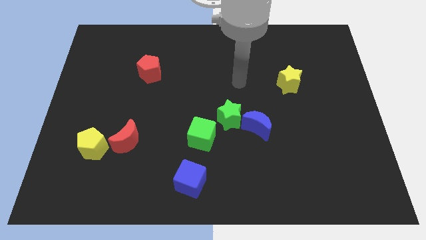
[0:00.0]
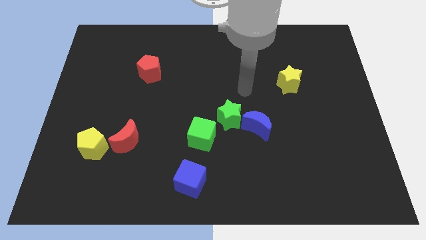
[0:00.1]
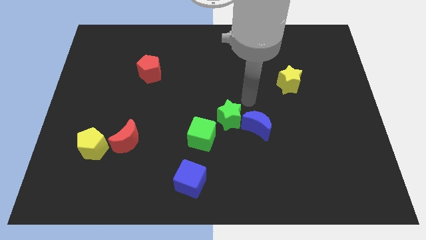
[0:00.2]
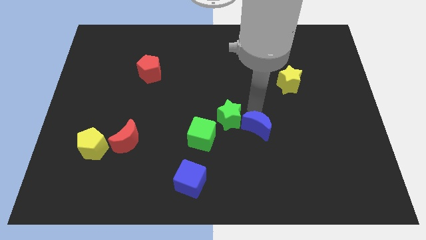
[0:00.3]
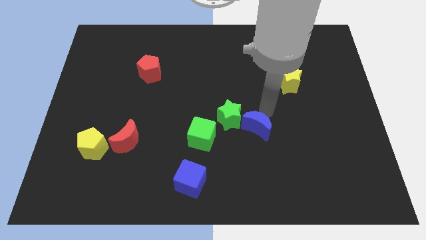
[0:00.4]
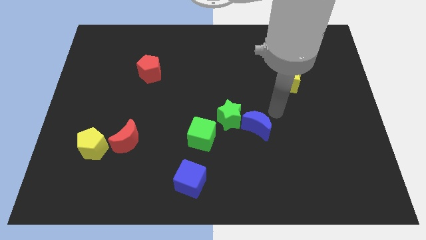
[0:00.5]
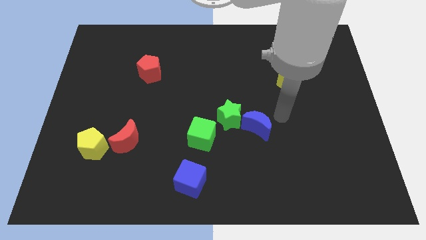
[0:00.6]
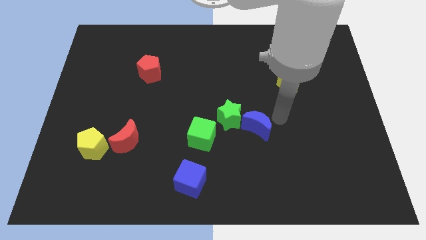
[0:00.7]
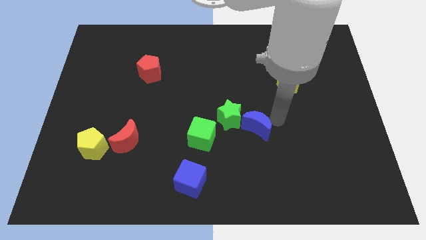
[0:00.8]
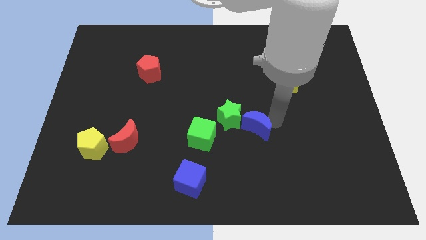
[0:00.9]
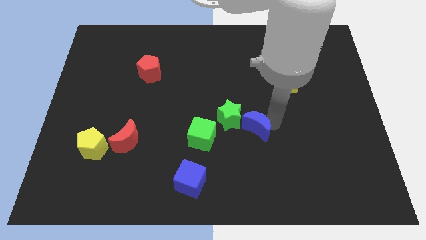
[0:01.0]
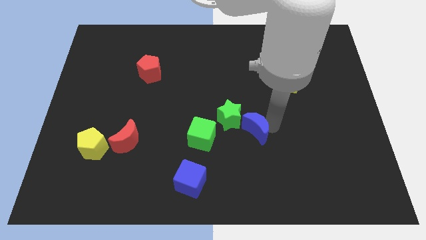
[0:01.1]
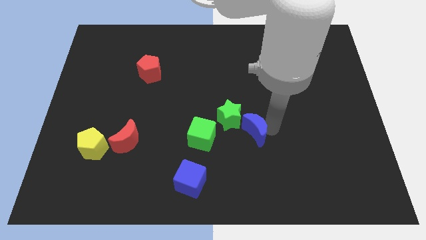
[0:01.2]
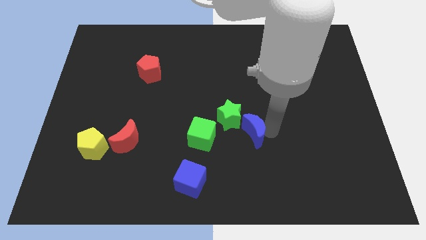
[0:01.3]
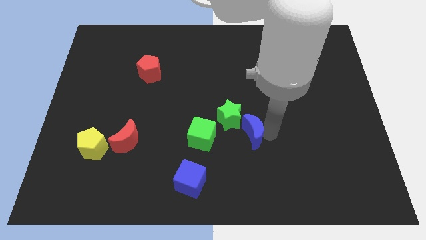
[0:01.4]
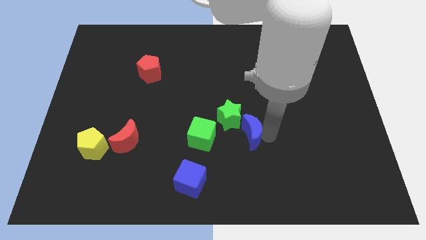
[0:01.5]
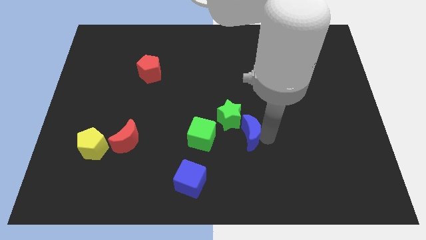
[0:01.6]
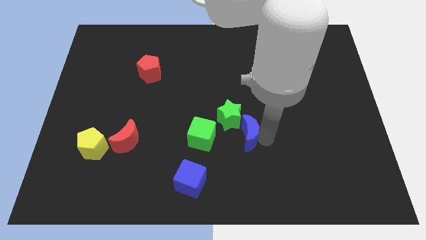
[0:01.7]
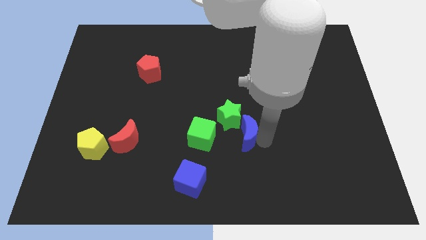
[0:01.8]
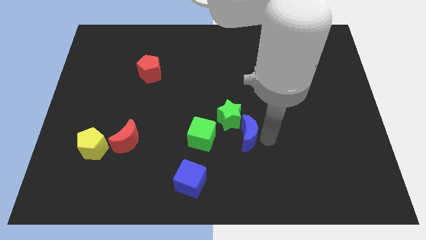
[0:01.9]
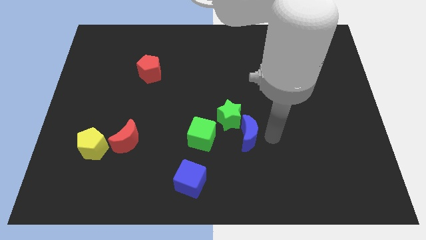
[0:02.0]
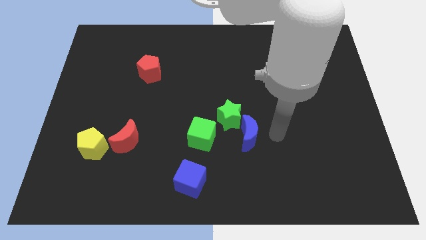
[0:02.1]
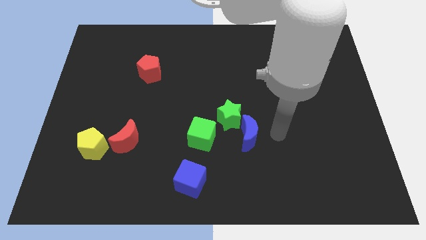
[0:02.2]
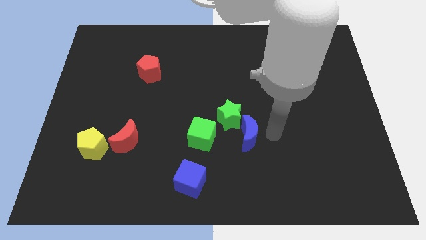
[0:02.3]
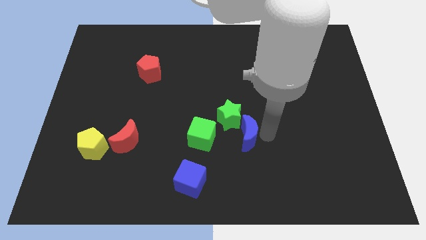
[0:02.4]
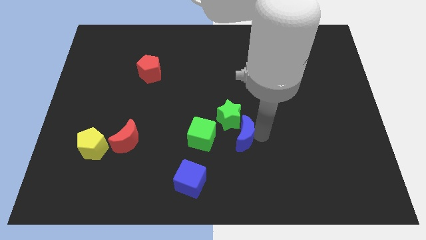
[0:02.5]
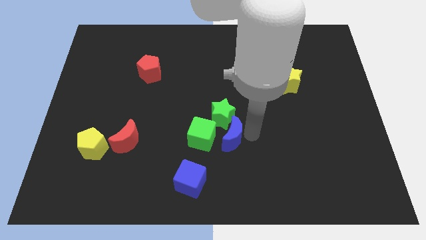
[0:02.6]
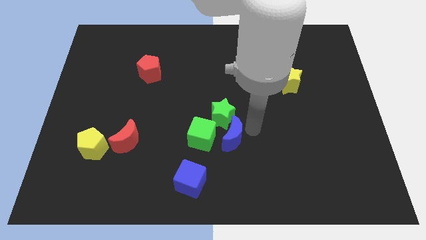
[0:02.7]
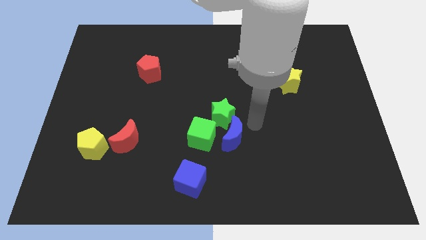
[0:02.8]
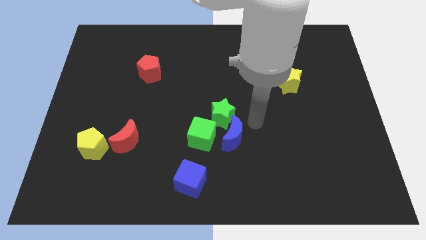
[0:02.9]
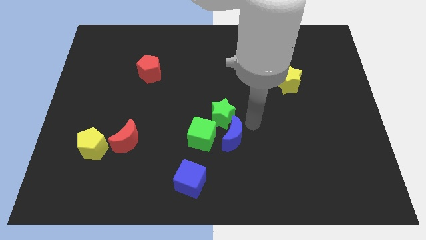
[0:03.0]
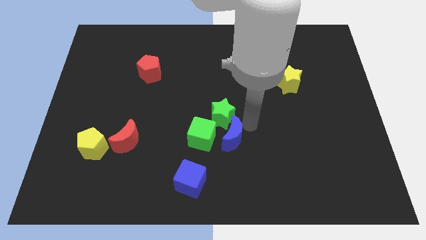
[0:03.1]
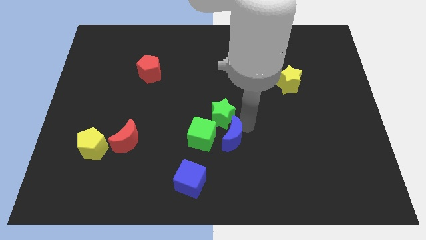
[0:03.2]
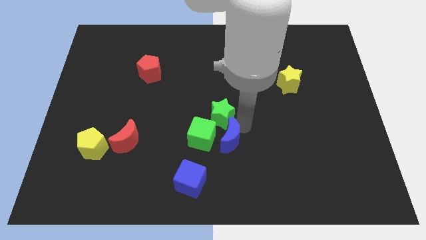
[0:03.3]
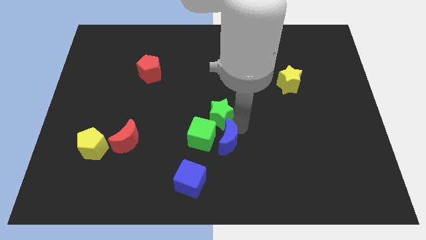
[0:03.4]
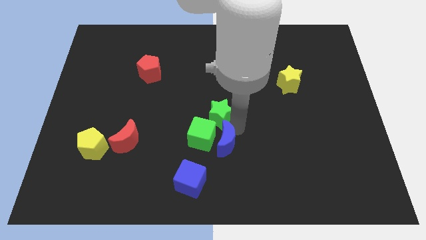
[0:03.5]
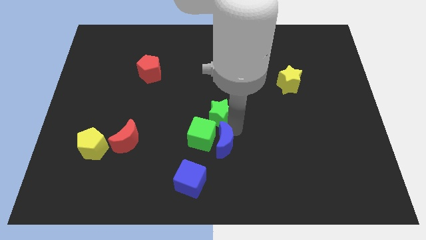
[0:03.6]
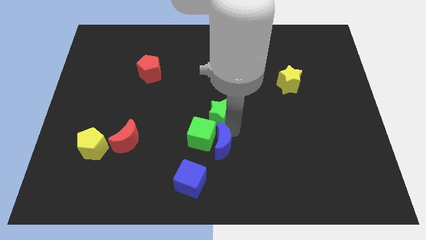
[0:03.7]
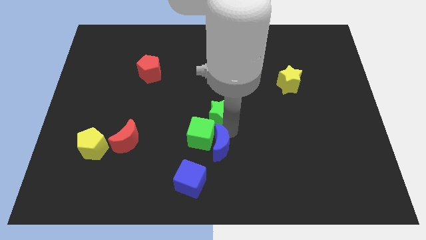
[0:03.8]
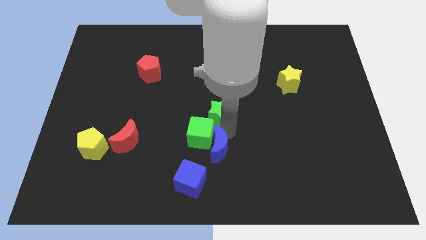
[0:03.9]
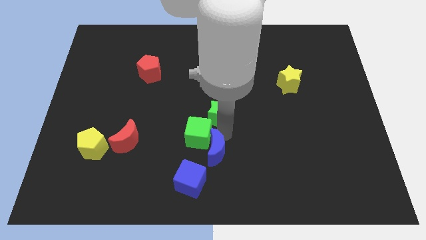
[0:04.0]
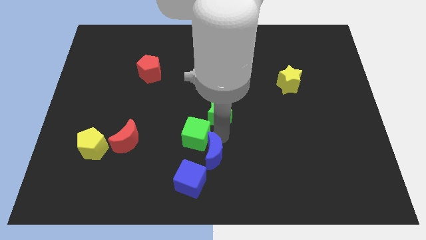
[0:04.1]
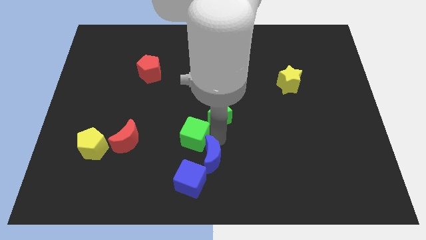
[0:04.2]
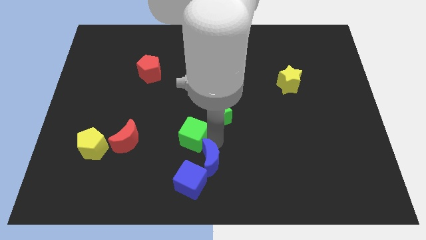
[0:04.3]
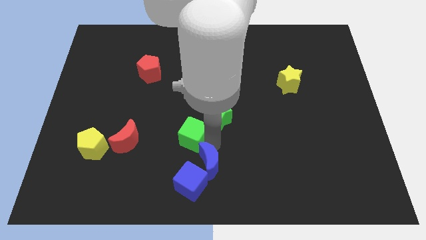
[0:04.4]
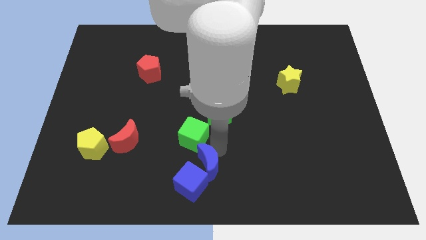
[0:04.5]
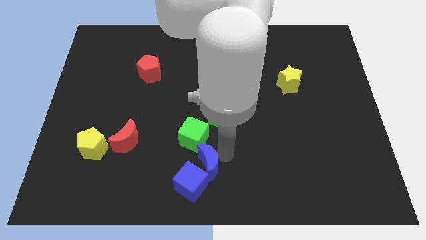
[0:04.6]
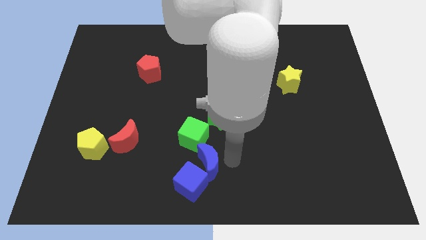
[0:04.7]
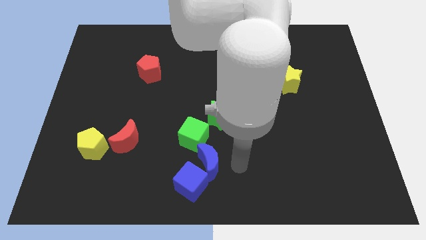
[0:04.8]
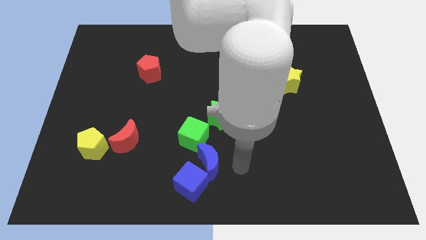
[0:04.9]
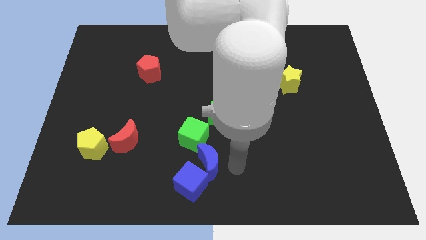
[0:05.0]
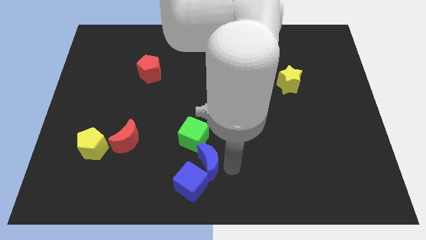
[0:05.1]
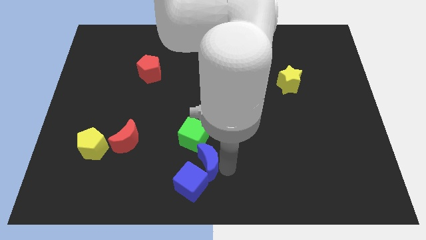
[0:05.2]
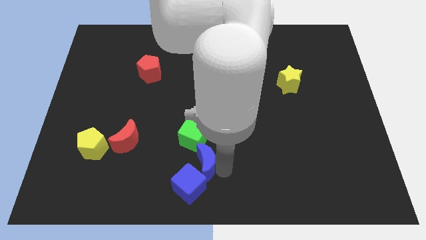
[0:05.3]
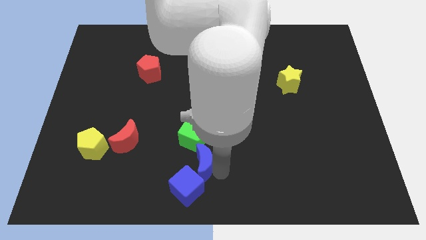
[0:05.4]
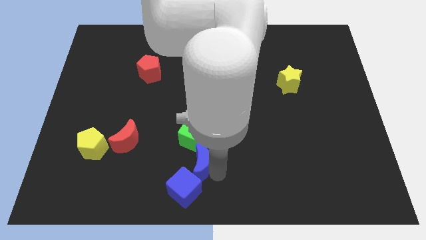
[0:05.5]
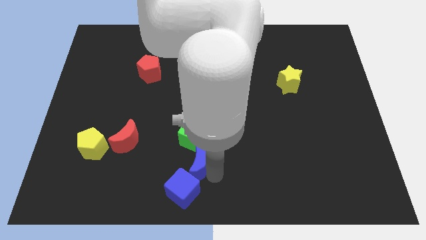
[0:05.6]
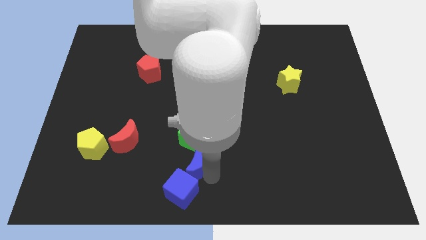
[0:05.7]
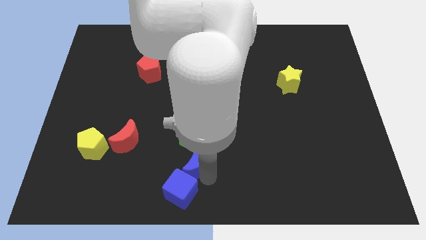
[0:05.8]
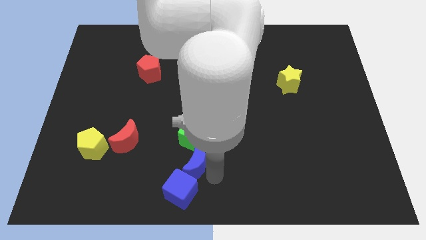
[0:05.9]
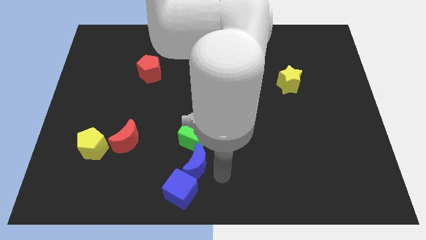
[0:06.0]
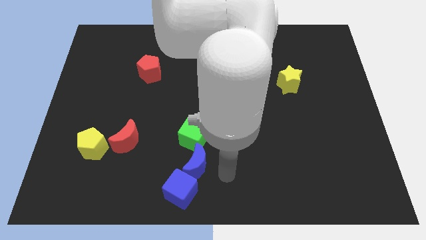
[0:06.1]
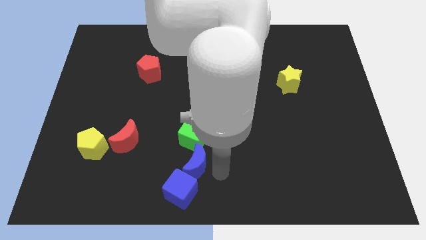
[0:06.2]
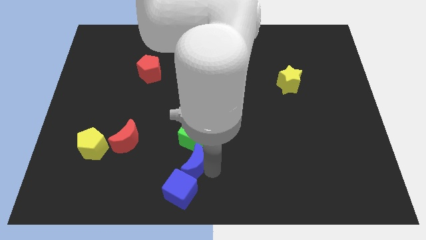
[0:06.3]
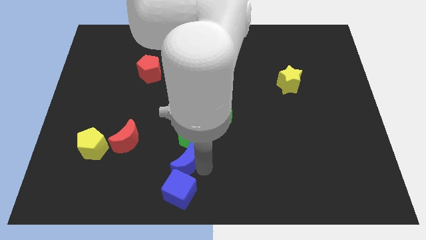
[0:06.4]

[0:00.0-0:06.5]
slide the blue moon to the bottom left side of the green cube

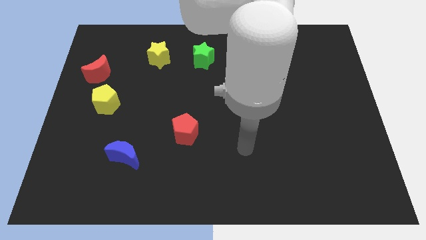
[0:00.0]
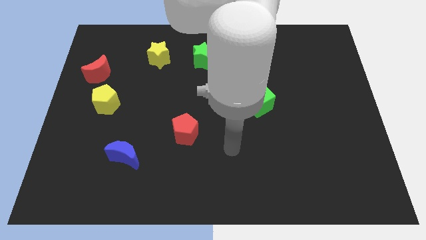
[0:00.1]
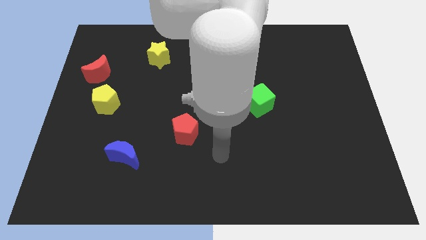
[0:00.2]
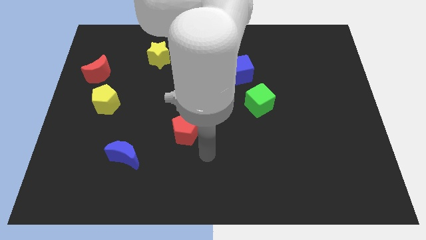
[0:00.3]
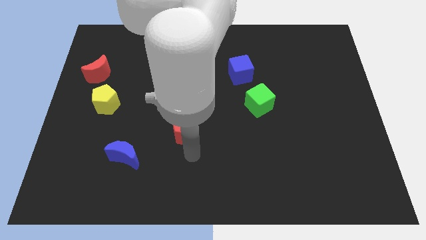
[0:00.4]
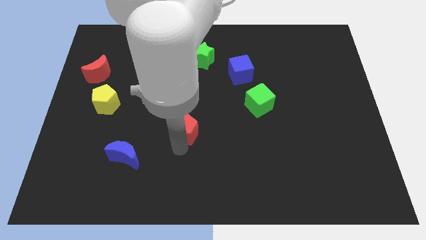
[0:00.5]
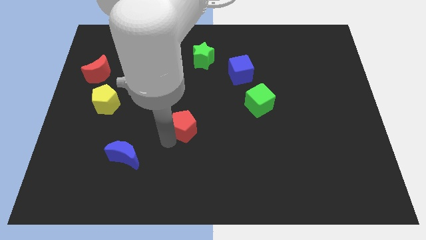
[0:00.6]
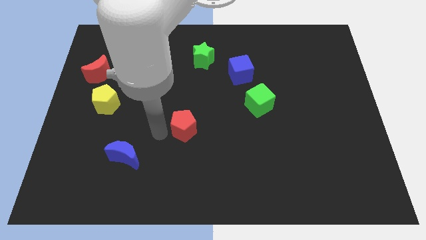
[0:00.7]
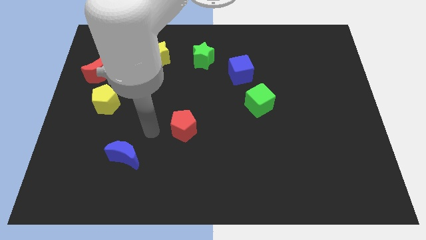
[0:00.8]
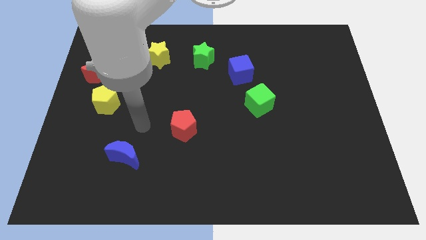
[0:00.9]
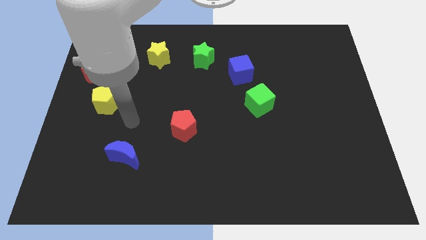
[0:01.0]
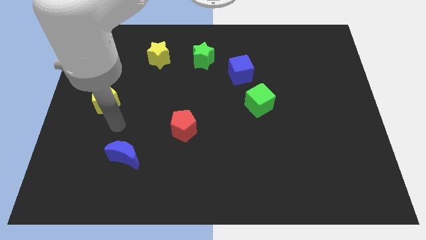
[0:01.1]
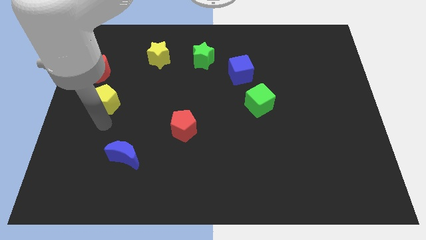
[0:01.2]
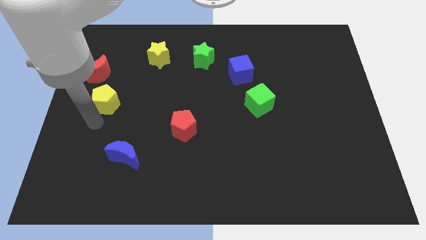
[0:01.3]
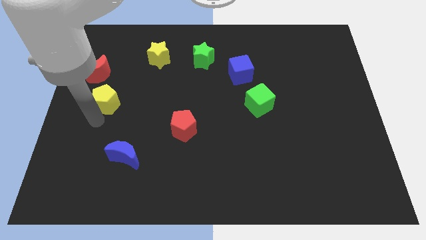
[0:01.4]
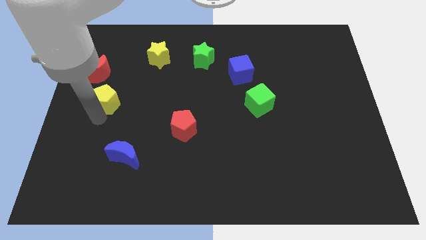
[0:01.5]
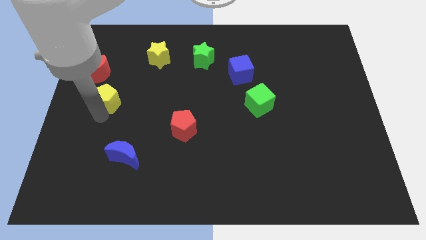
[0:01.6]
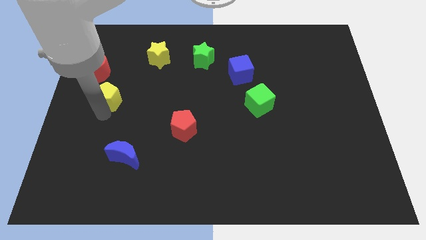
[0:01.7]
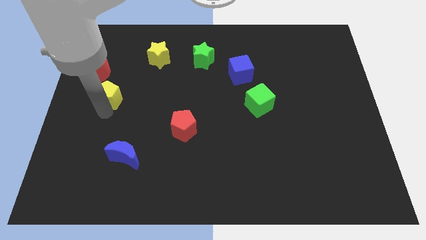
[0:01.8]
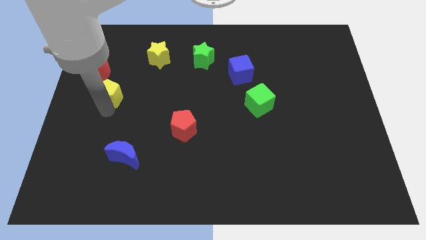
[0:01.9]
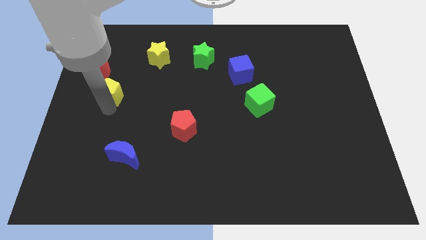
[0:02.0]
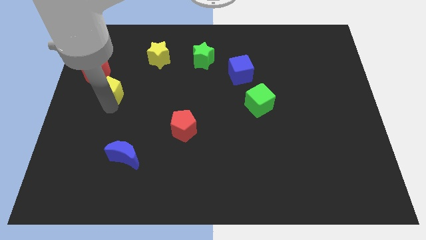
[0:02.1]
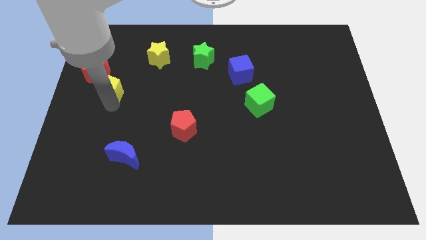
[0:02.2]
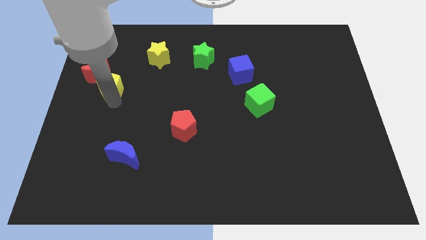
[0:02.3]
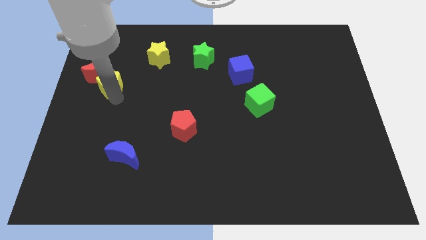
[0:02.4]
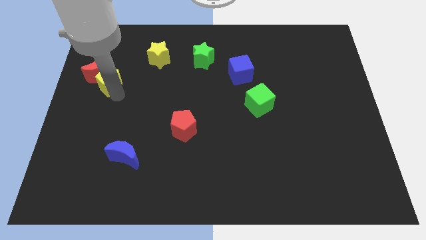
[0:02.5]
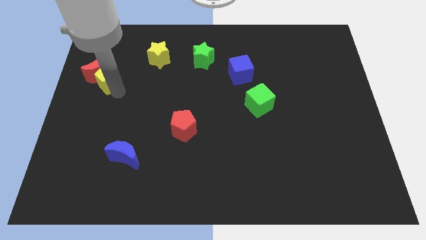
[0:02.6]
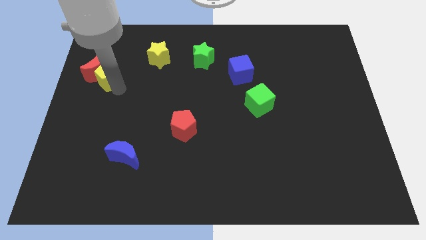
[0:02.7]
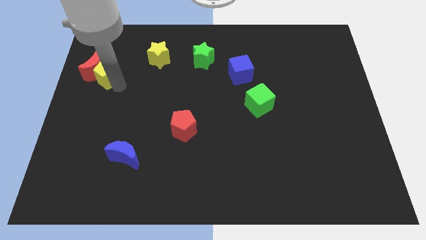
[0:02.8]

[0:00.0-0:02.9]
push the yellow pentagon diagonally up and to the right of the red moon
